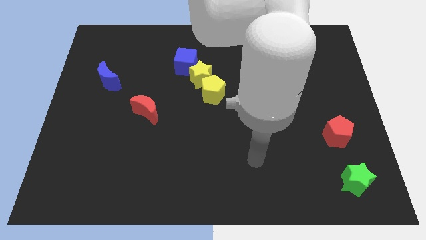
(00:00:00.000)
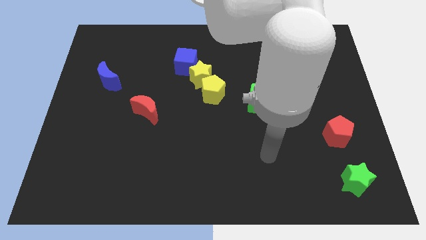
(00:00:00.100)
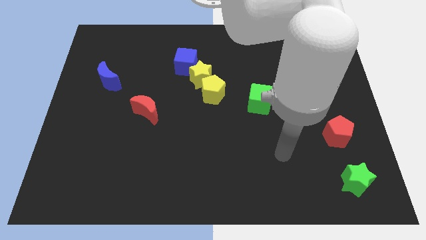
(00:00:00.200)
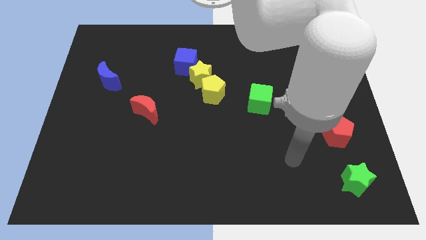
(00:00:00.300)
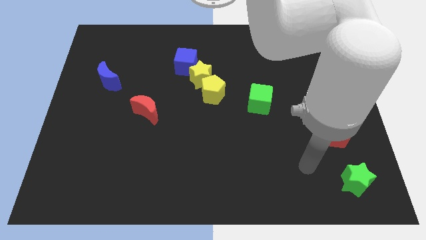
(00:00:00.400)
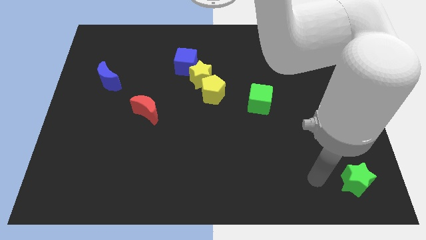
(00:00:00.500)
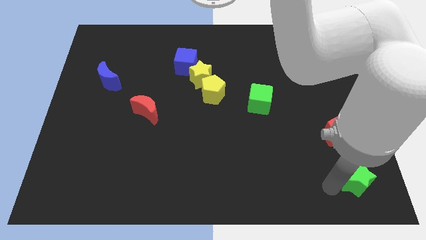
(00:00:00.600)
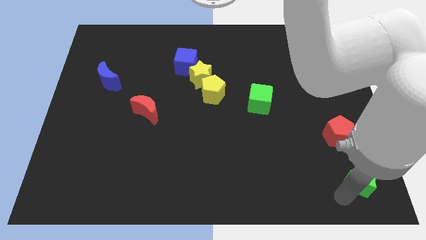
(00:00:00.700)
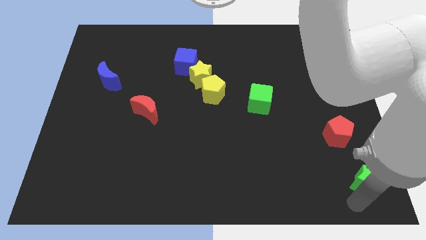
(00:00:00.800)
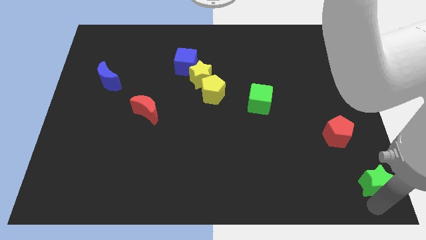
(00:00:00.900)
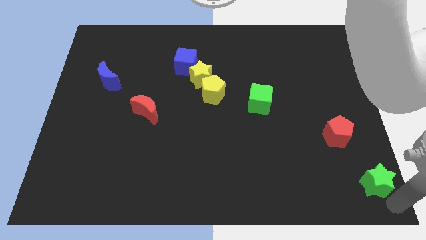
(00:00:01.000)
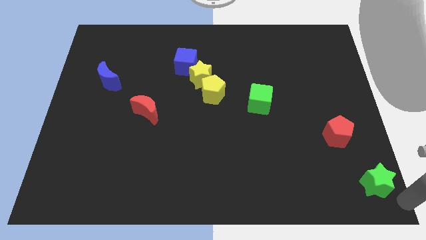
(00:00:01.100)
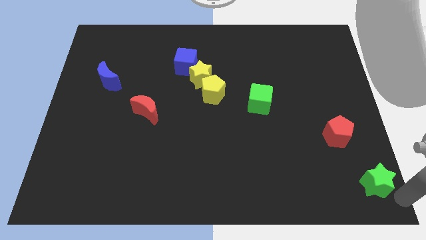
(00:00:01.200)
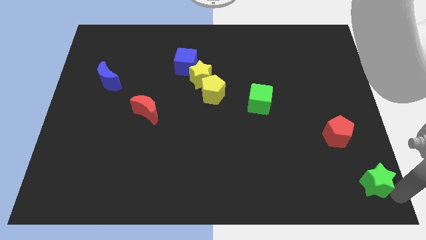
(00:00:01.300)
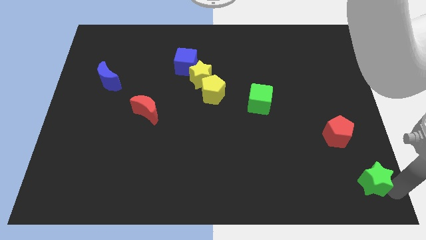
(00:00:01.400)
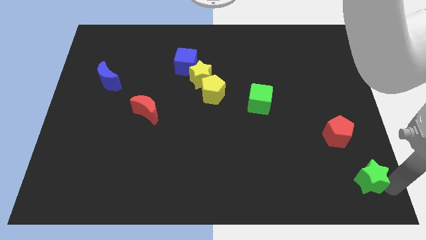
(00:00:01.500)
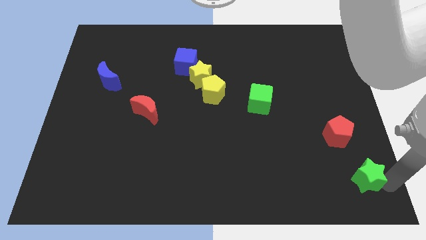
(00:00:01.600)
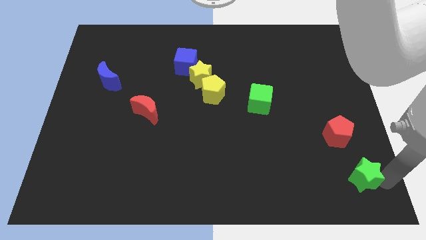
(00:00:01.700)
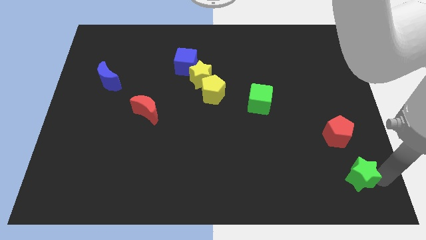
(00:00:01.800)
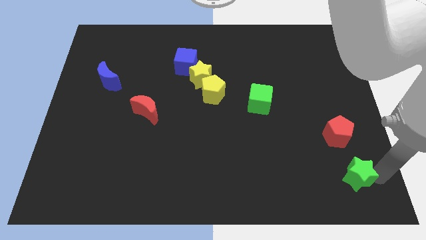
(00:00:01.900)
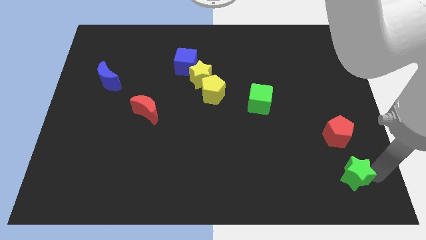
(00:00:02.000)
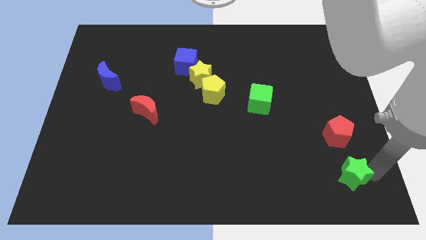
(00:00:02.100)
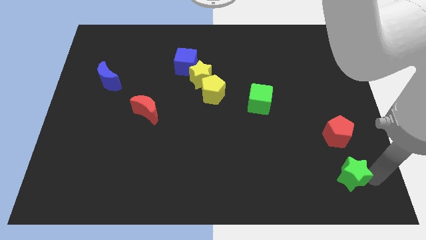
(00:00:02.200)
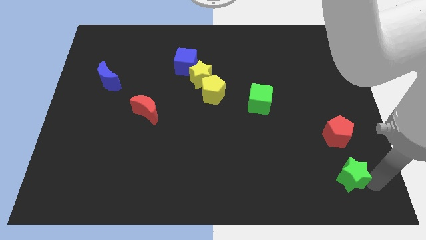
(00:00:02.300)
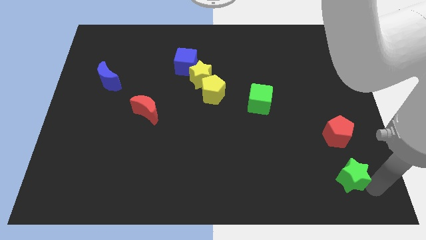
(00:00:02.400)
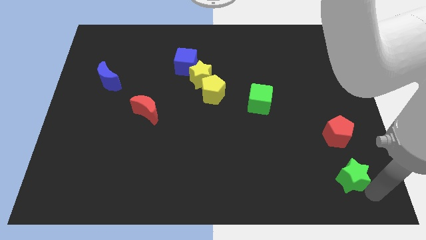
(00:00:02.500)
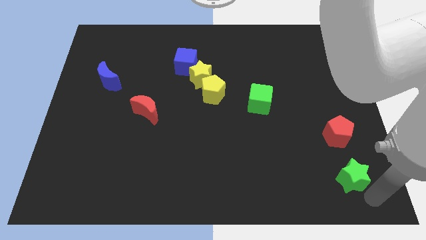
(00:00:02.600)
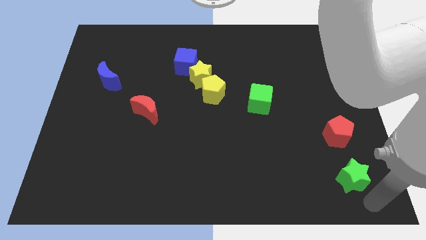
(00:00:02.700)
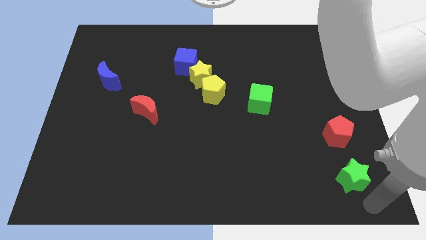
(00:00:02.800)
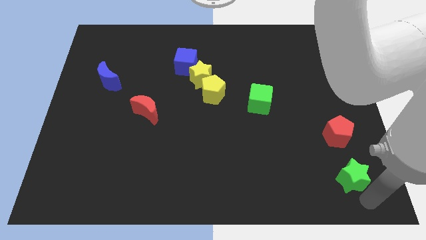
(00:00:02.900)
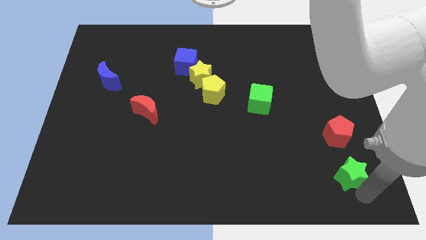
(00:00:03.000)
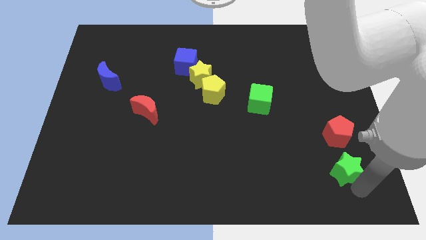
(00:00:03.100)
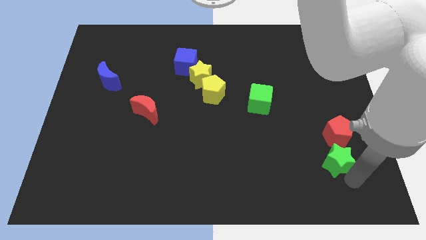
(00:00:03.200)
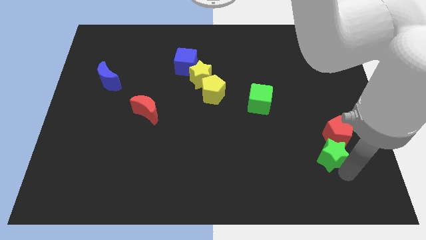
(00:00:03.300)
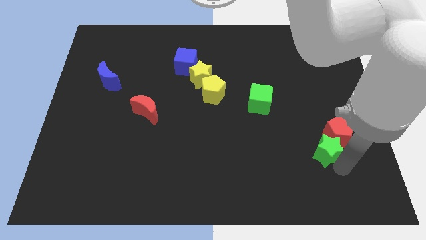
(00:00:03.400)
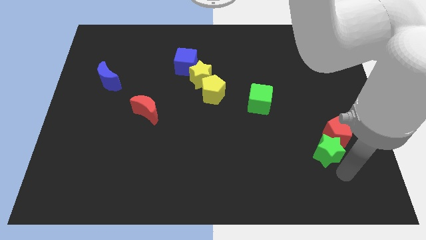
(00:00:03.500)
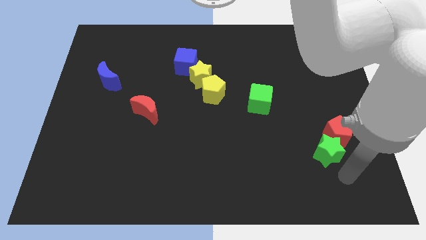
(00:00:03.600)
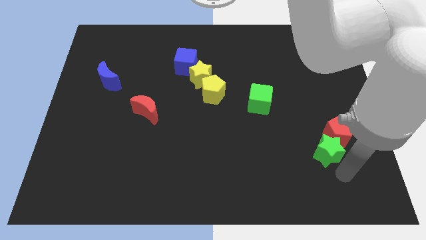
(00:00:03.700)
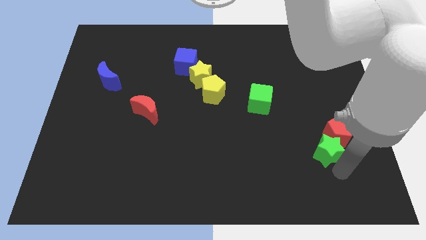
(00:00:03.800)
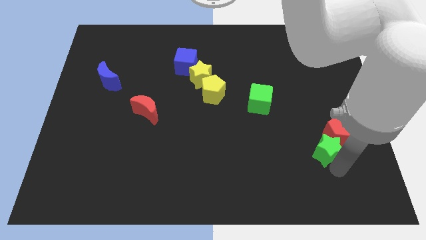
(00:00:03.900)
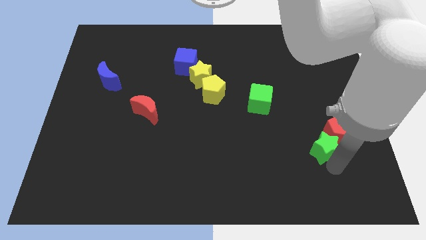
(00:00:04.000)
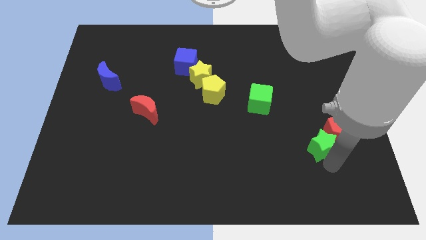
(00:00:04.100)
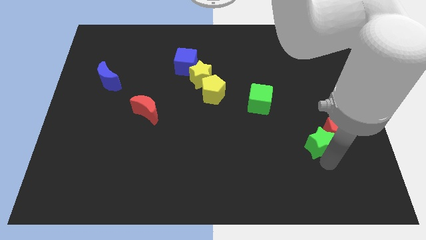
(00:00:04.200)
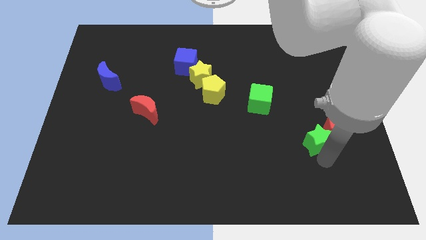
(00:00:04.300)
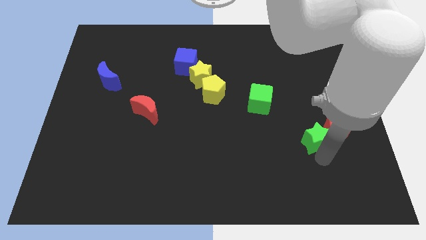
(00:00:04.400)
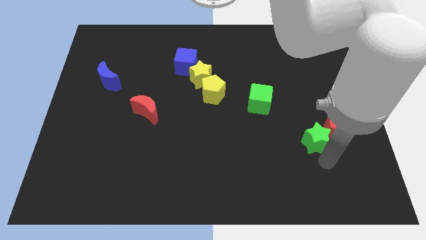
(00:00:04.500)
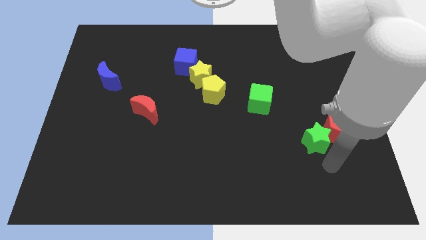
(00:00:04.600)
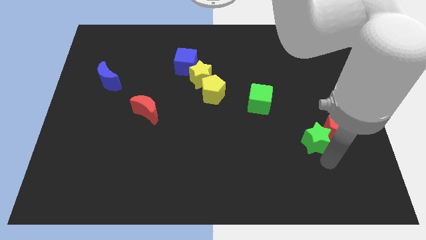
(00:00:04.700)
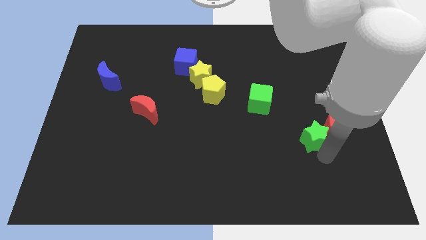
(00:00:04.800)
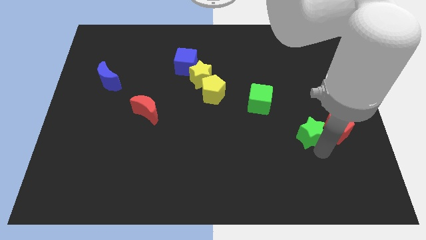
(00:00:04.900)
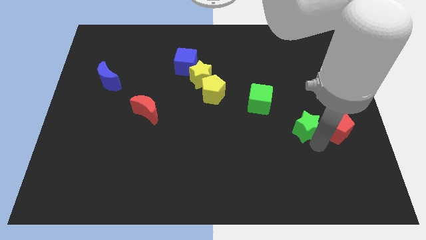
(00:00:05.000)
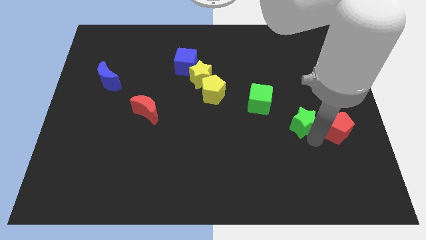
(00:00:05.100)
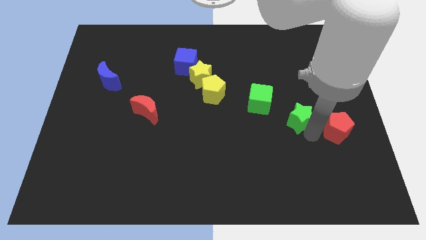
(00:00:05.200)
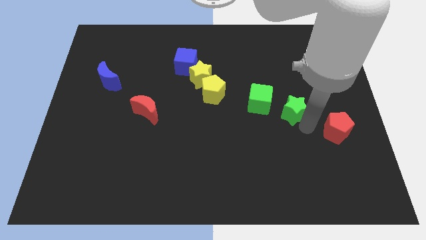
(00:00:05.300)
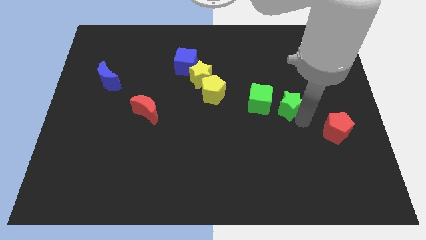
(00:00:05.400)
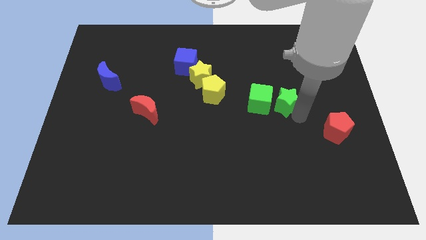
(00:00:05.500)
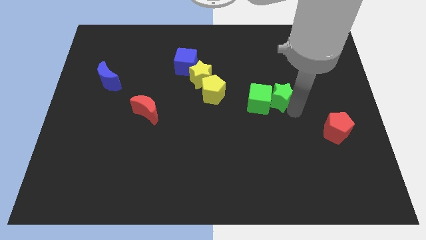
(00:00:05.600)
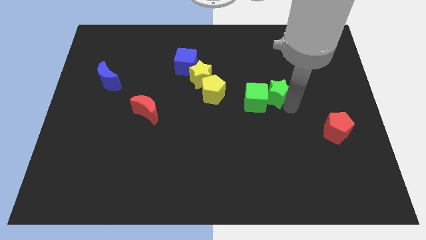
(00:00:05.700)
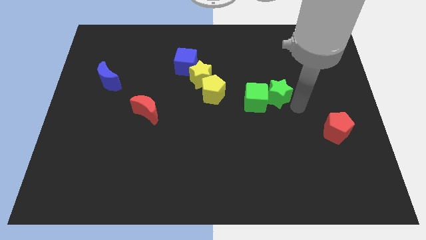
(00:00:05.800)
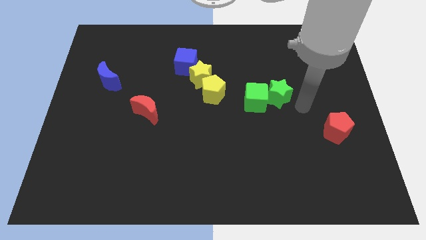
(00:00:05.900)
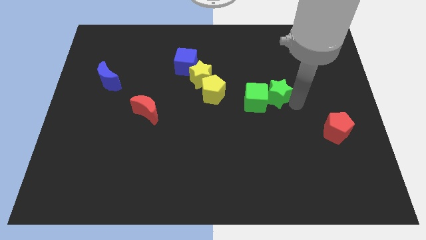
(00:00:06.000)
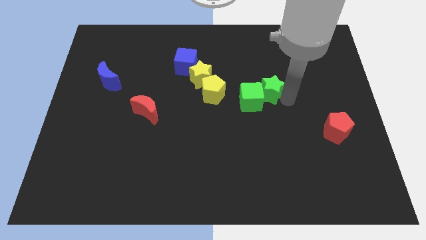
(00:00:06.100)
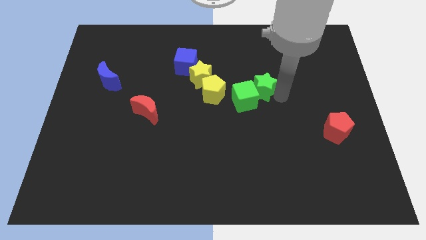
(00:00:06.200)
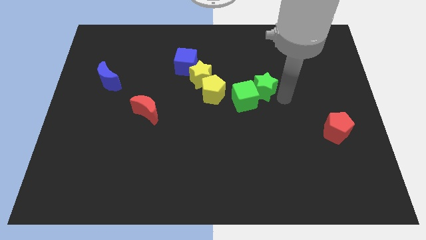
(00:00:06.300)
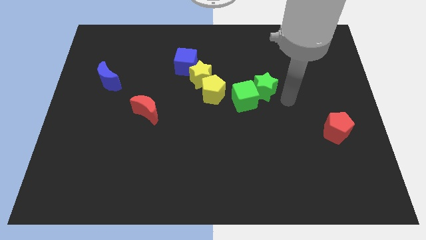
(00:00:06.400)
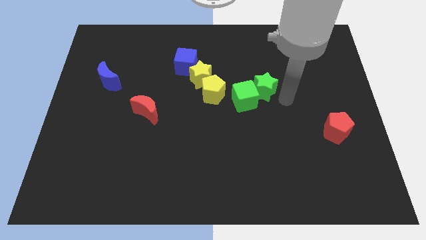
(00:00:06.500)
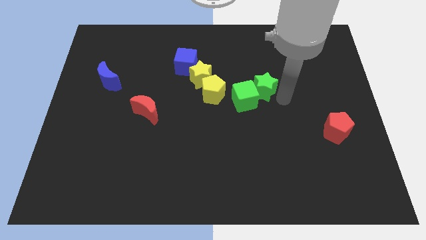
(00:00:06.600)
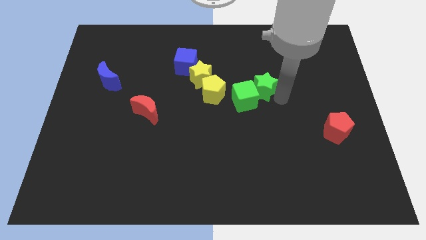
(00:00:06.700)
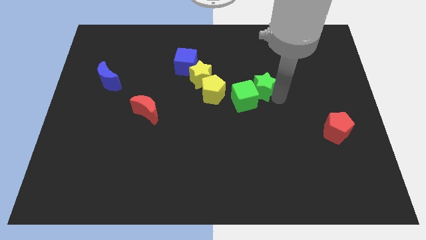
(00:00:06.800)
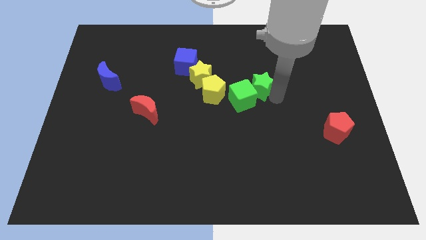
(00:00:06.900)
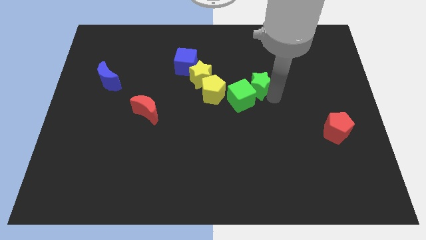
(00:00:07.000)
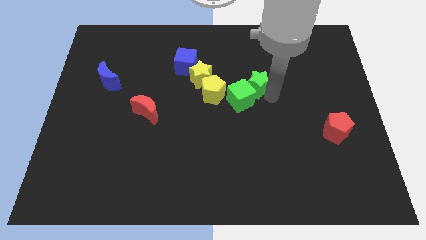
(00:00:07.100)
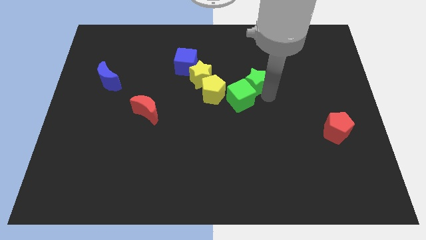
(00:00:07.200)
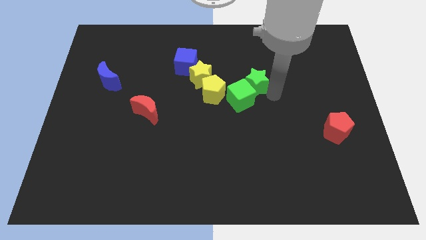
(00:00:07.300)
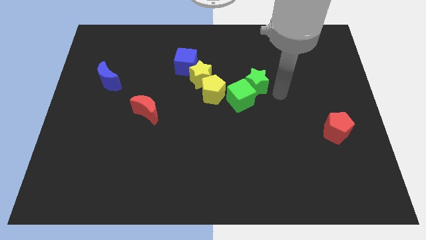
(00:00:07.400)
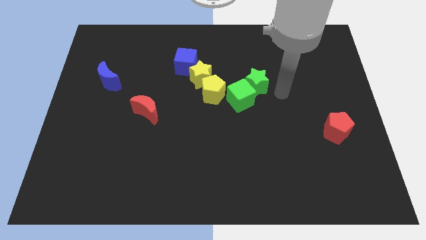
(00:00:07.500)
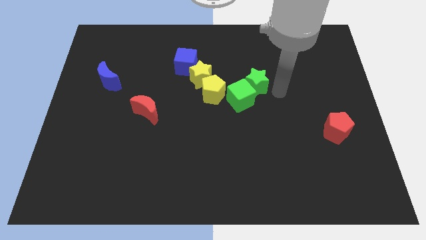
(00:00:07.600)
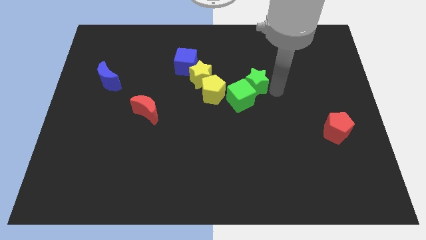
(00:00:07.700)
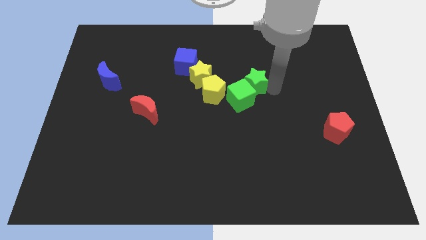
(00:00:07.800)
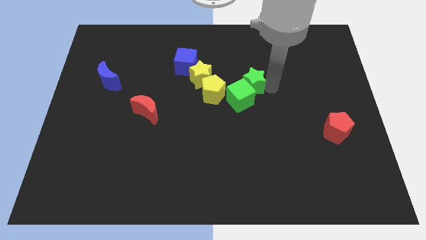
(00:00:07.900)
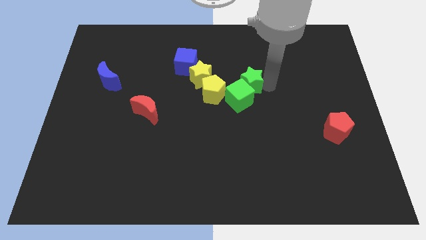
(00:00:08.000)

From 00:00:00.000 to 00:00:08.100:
push the green star to the top right of the yellow pentagon
